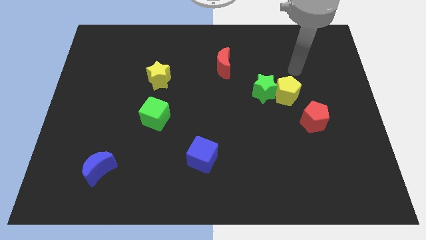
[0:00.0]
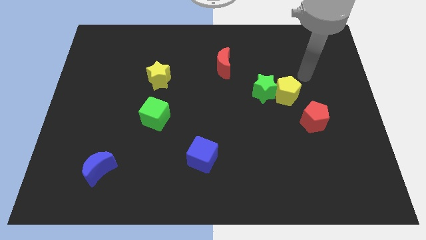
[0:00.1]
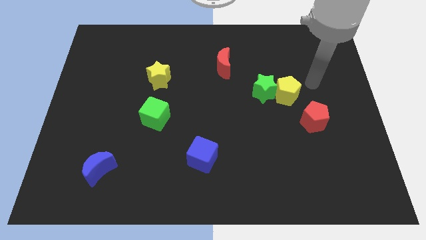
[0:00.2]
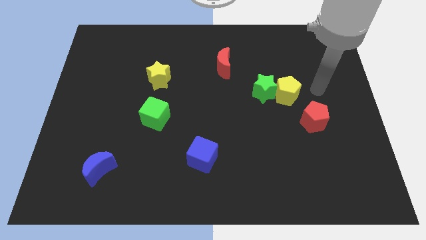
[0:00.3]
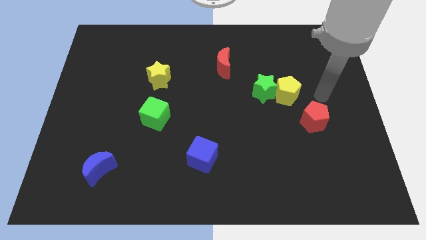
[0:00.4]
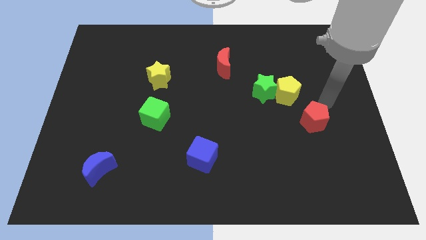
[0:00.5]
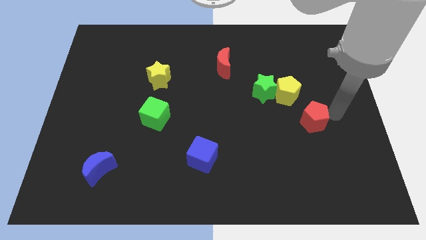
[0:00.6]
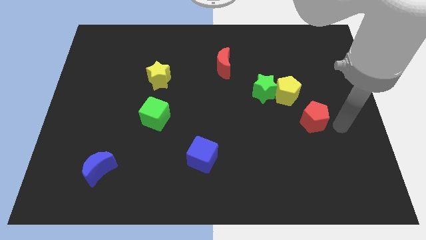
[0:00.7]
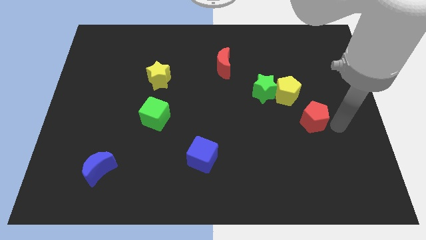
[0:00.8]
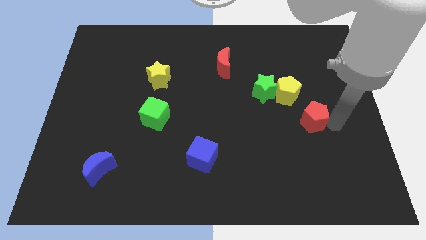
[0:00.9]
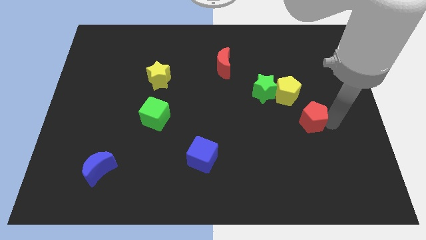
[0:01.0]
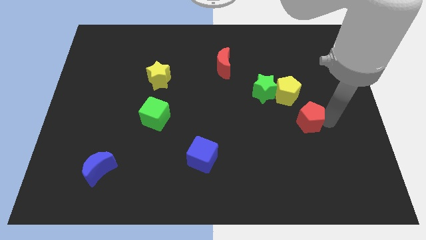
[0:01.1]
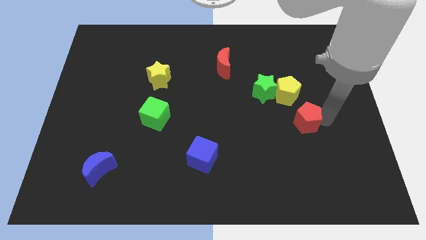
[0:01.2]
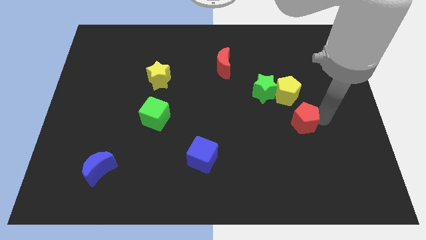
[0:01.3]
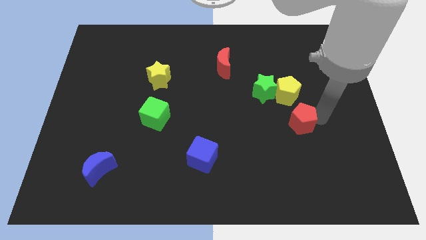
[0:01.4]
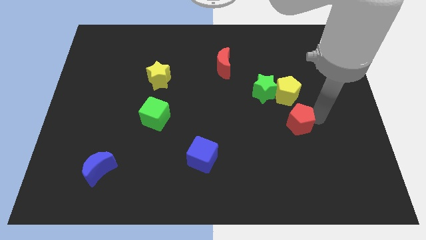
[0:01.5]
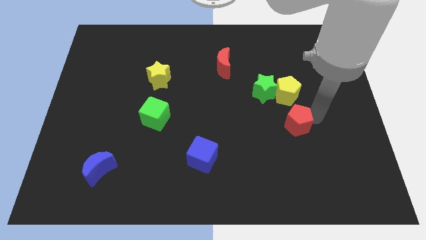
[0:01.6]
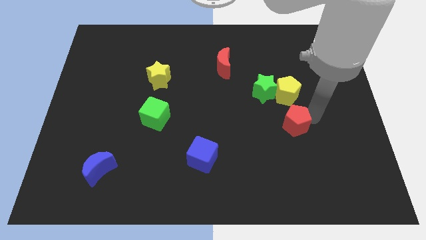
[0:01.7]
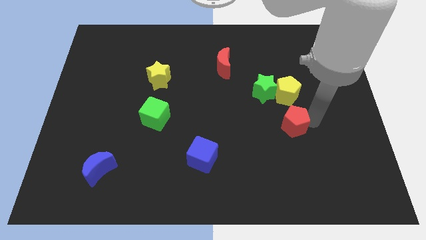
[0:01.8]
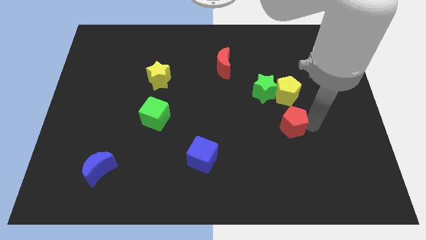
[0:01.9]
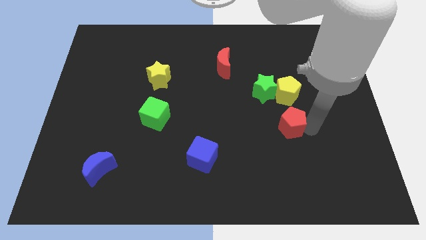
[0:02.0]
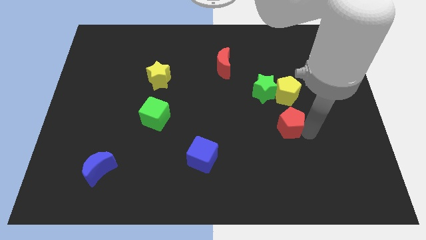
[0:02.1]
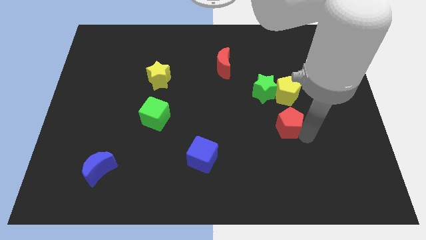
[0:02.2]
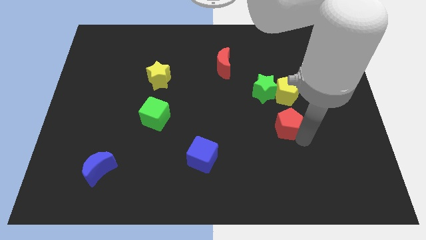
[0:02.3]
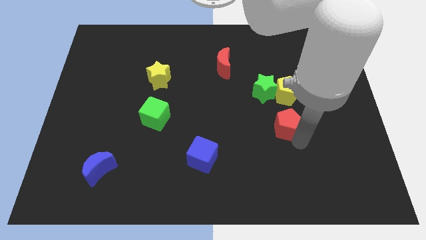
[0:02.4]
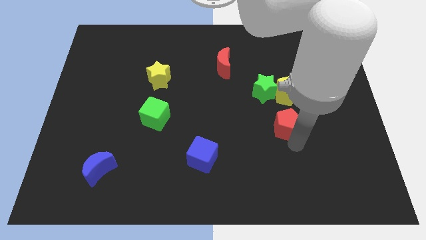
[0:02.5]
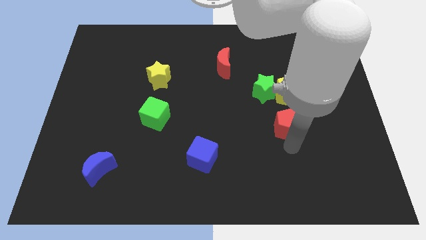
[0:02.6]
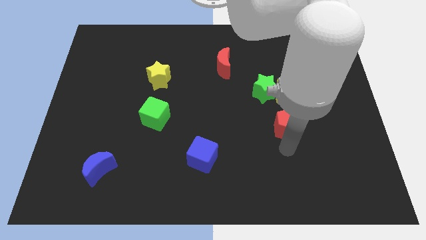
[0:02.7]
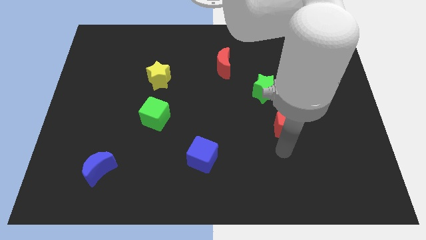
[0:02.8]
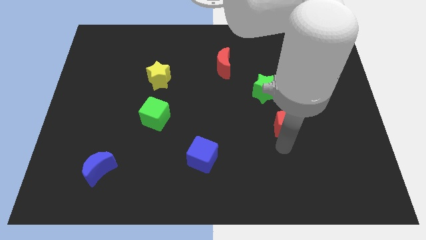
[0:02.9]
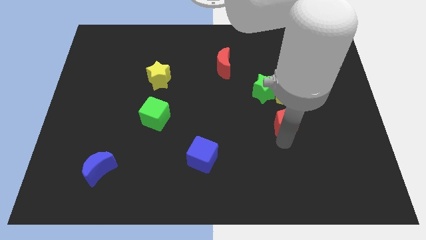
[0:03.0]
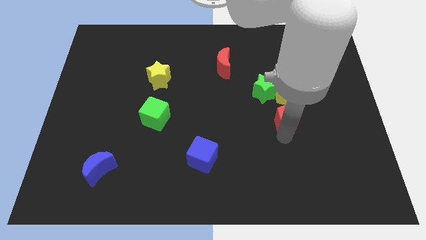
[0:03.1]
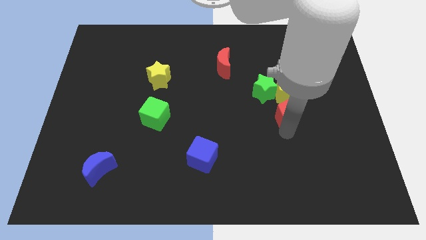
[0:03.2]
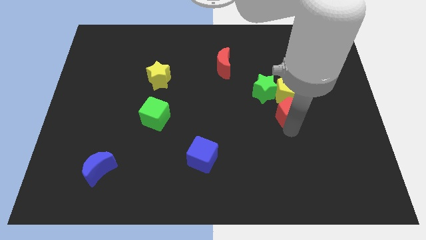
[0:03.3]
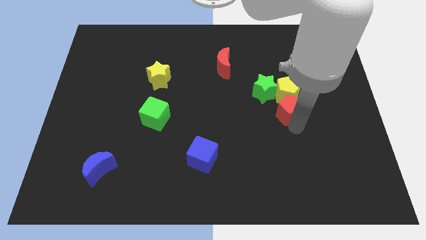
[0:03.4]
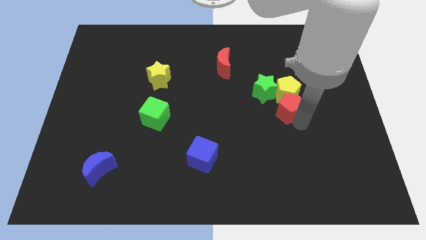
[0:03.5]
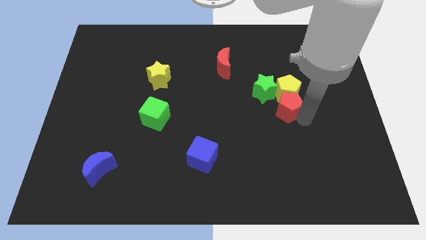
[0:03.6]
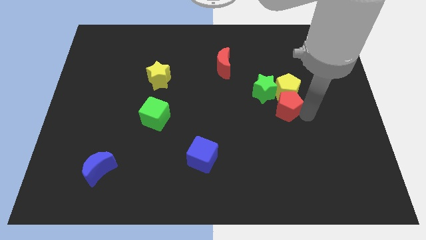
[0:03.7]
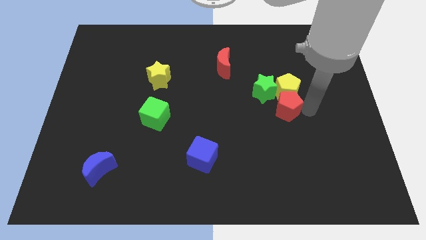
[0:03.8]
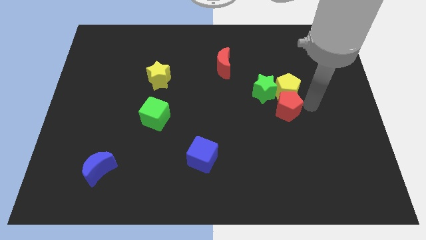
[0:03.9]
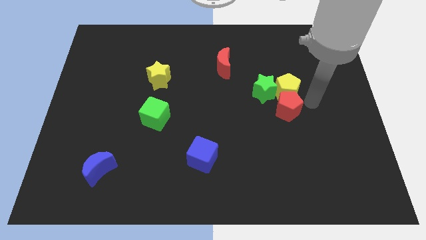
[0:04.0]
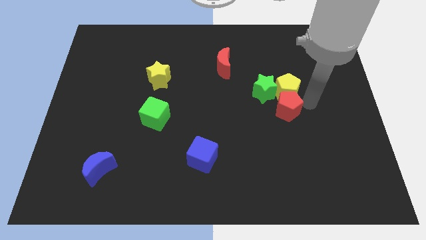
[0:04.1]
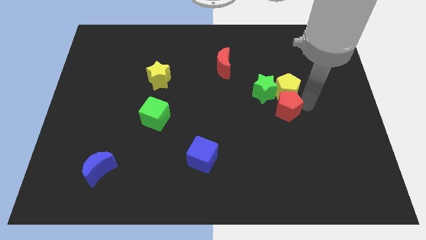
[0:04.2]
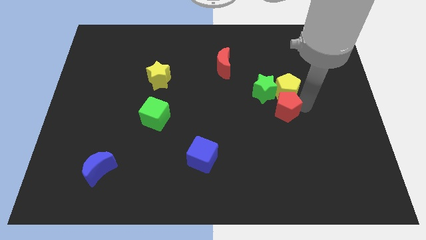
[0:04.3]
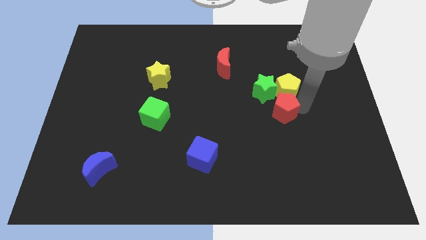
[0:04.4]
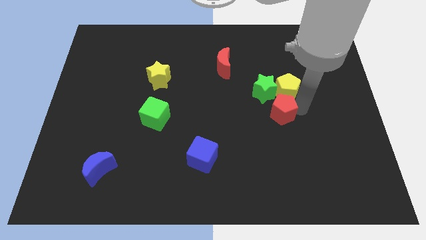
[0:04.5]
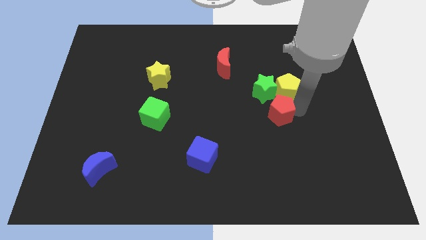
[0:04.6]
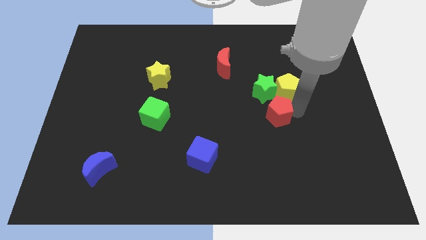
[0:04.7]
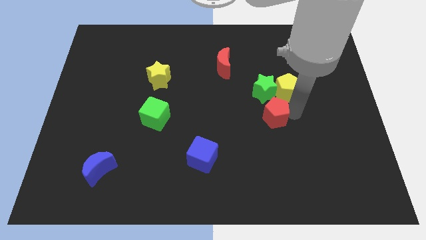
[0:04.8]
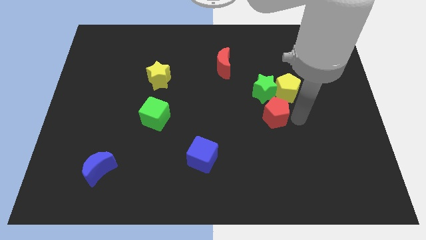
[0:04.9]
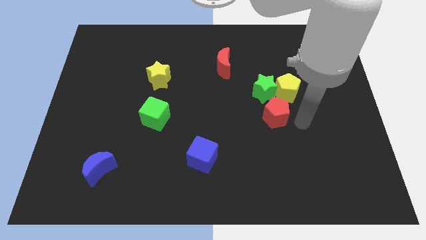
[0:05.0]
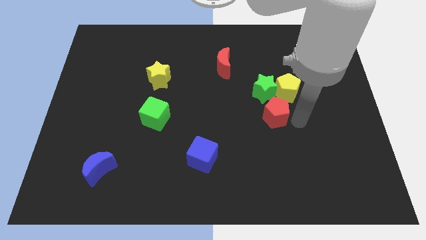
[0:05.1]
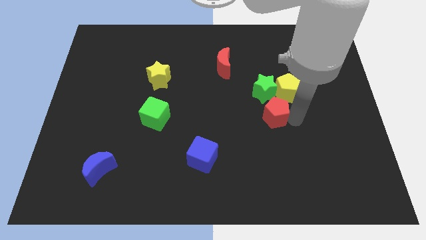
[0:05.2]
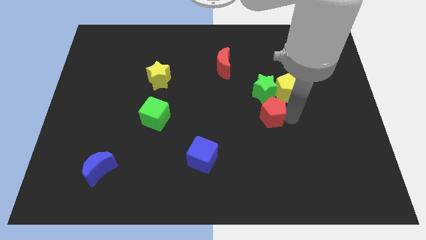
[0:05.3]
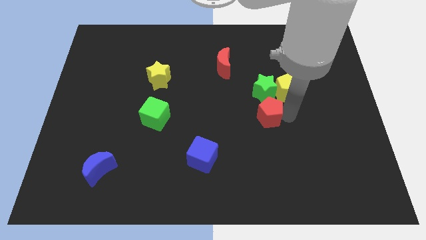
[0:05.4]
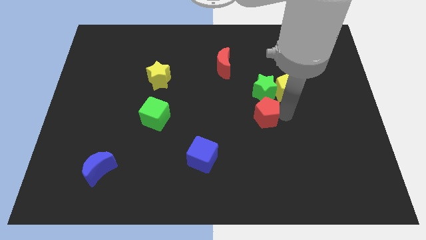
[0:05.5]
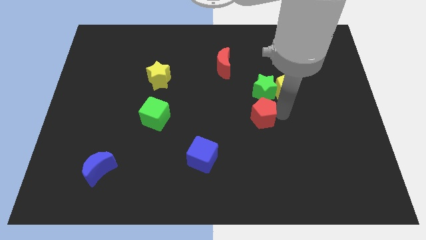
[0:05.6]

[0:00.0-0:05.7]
push the red pentagon to the center of the board

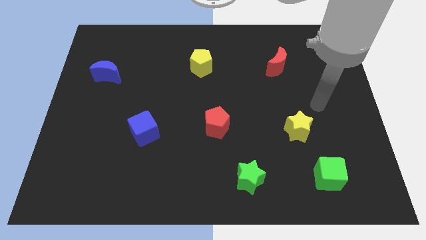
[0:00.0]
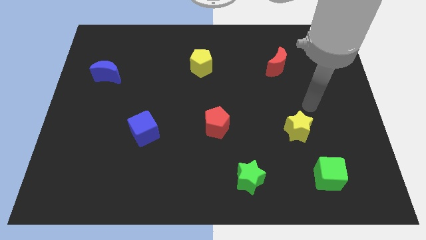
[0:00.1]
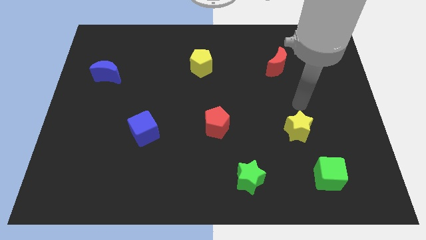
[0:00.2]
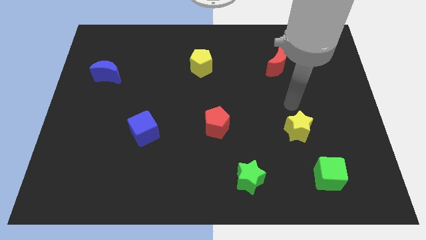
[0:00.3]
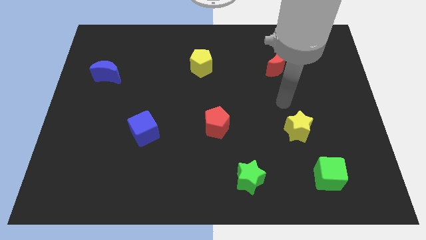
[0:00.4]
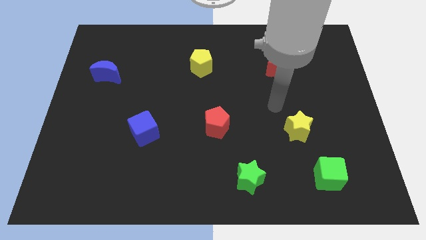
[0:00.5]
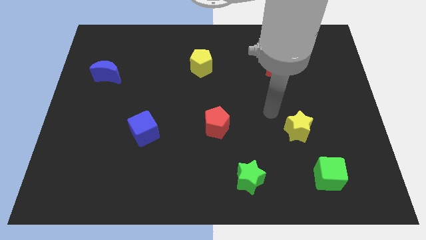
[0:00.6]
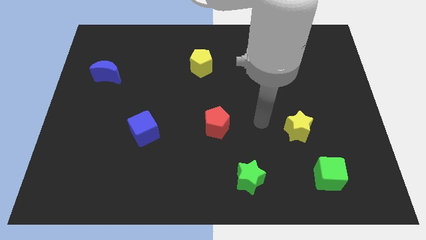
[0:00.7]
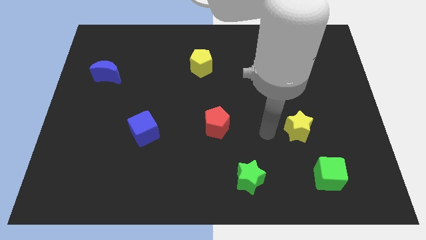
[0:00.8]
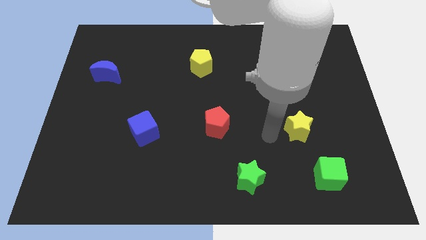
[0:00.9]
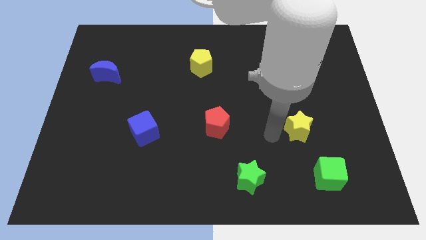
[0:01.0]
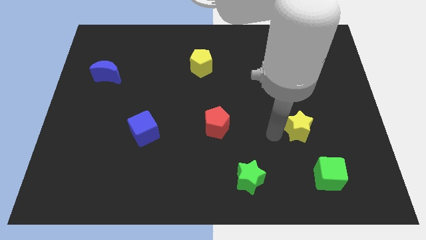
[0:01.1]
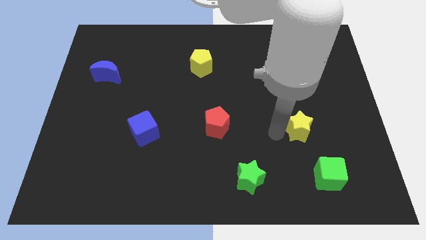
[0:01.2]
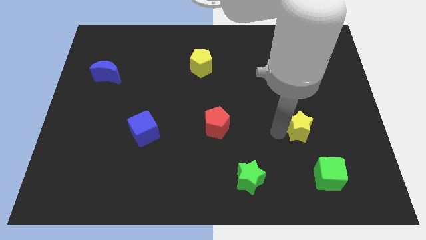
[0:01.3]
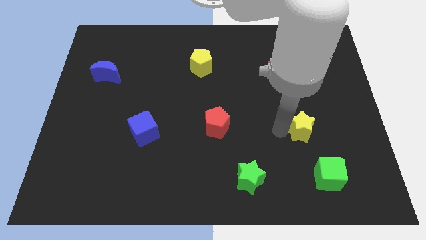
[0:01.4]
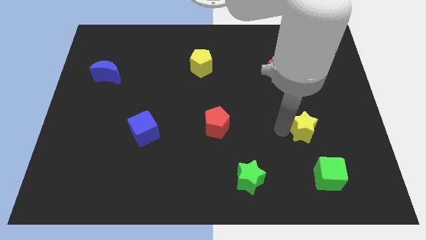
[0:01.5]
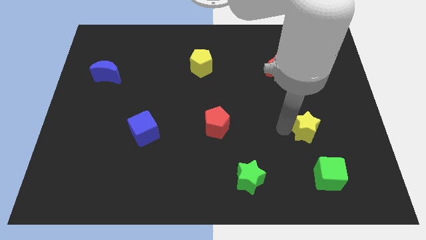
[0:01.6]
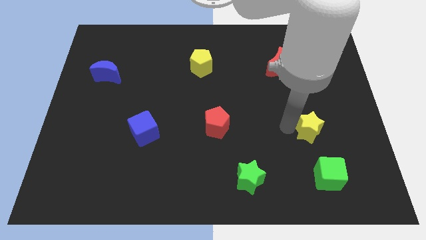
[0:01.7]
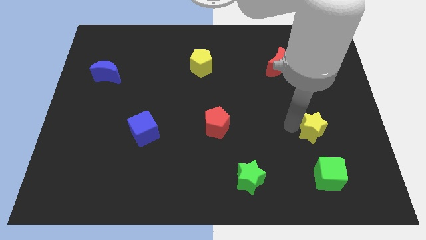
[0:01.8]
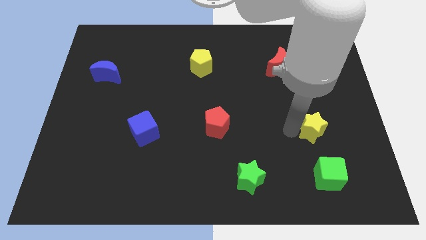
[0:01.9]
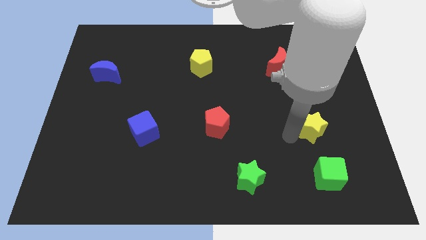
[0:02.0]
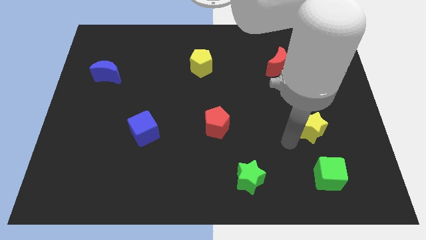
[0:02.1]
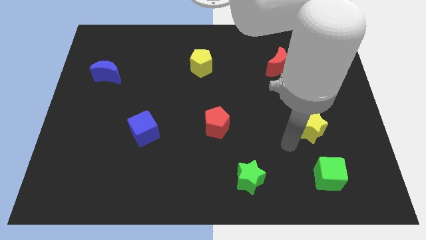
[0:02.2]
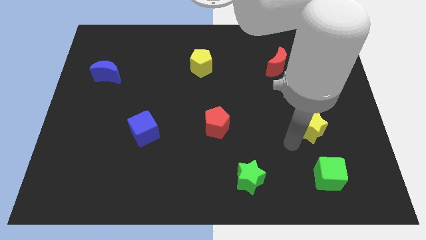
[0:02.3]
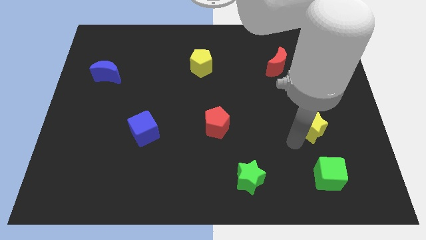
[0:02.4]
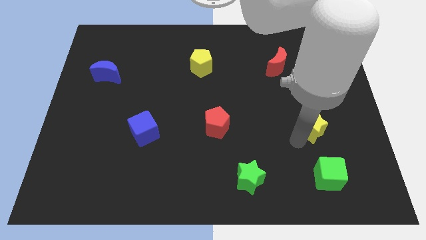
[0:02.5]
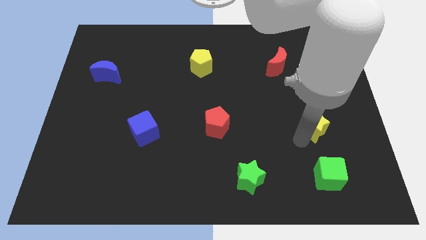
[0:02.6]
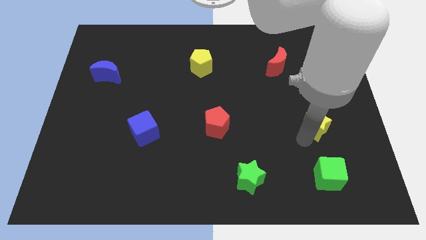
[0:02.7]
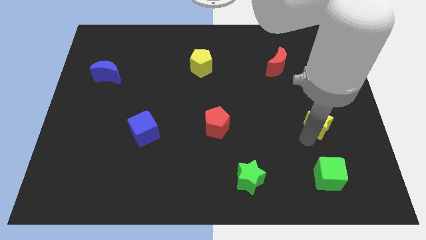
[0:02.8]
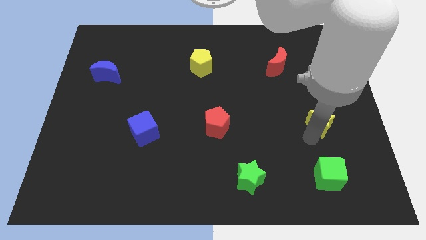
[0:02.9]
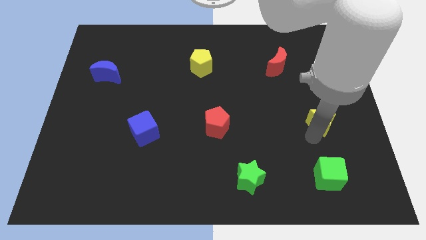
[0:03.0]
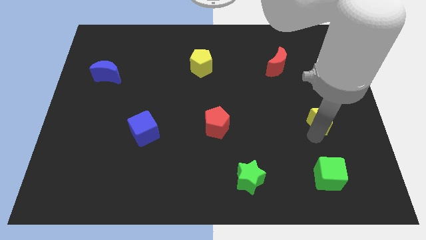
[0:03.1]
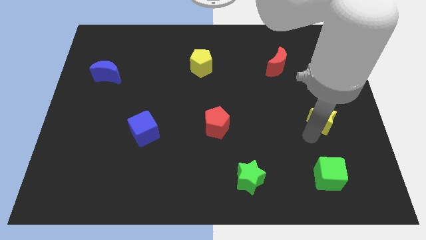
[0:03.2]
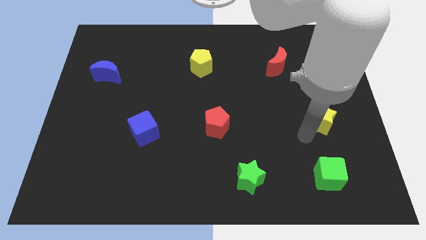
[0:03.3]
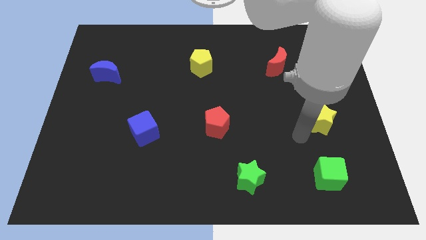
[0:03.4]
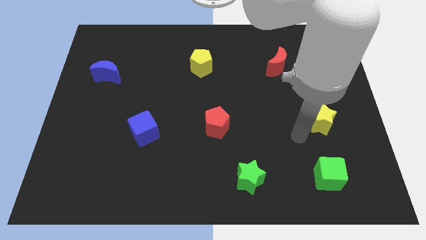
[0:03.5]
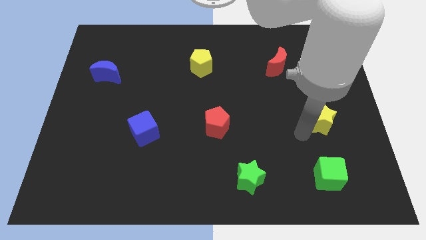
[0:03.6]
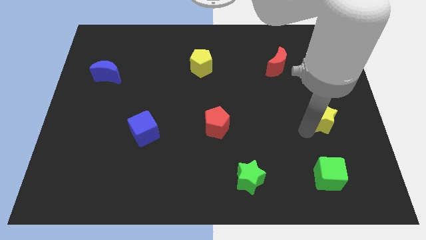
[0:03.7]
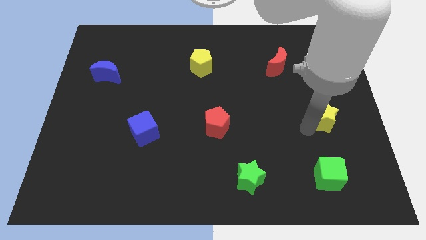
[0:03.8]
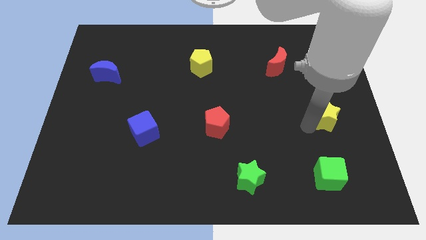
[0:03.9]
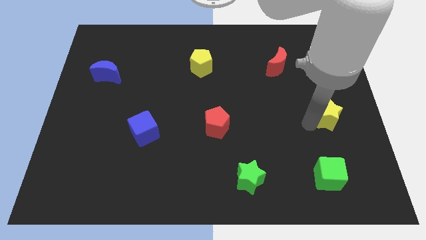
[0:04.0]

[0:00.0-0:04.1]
move the yellow star to the center right
